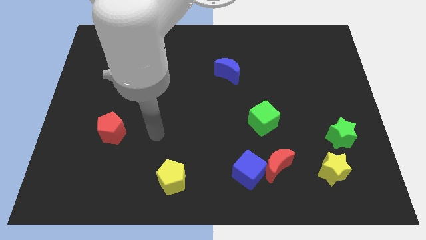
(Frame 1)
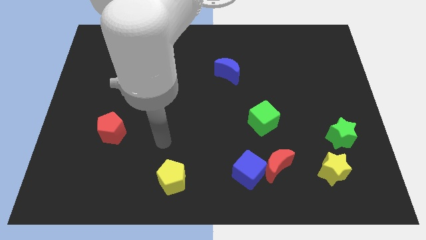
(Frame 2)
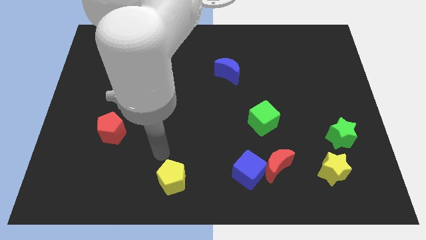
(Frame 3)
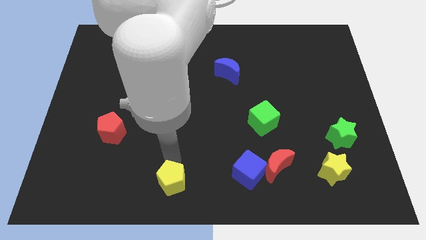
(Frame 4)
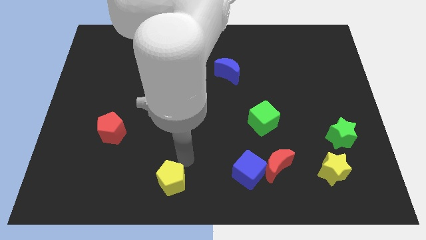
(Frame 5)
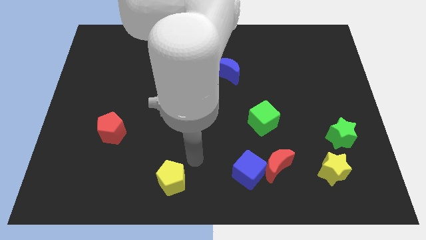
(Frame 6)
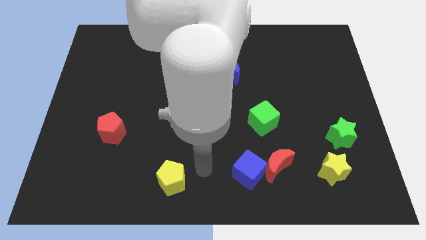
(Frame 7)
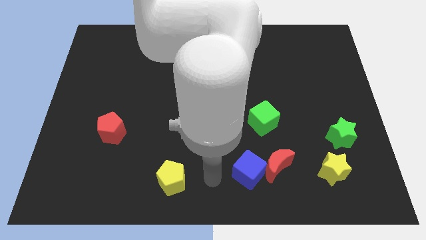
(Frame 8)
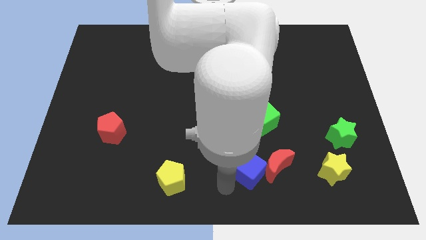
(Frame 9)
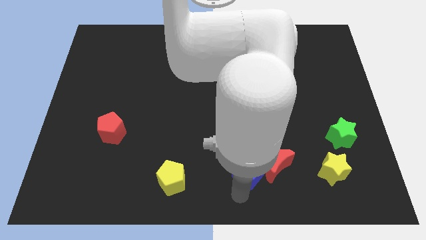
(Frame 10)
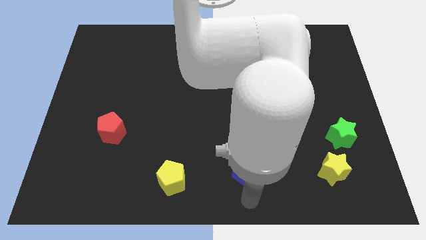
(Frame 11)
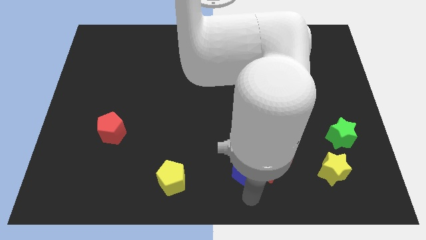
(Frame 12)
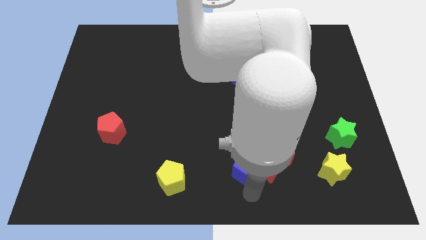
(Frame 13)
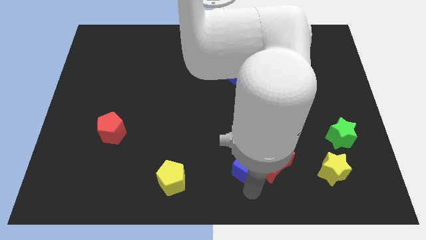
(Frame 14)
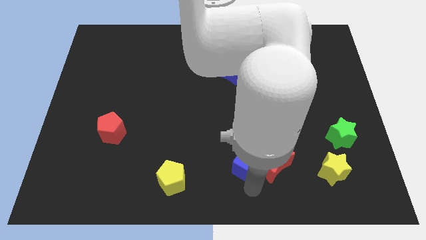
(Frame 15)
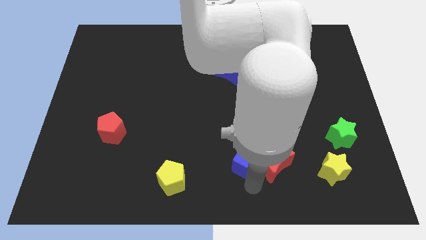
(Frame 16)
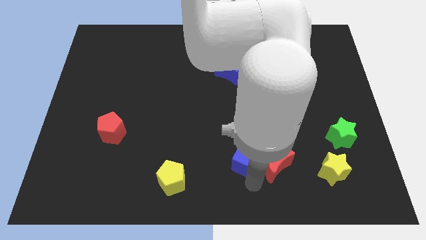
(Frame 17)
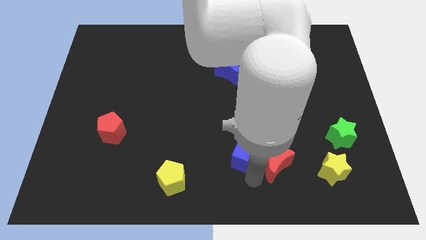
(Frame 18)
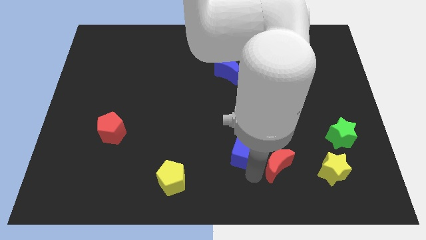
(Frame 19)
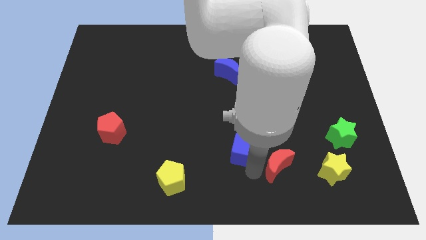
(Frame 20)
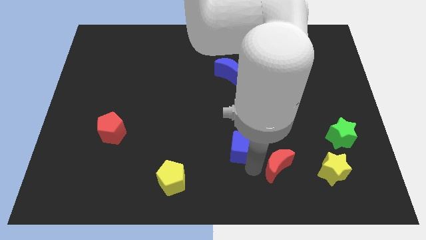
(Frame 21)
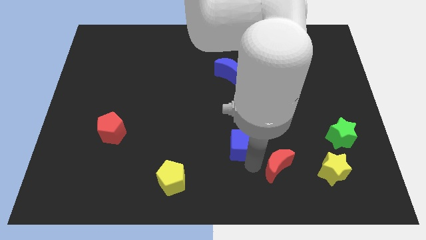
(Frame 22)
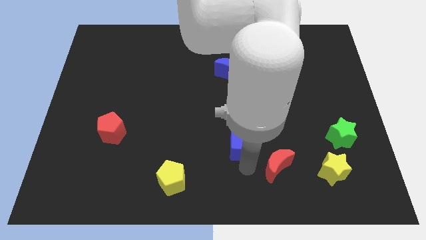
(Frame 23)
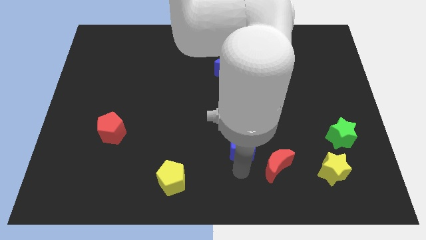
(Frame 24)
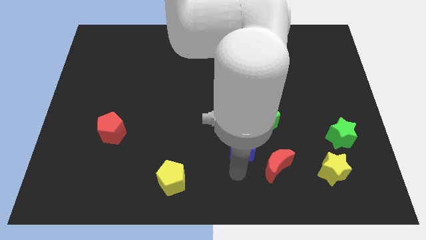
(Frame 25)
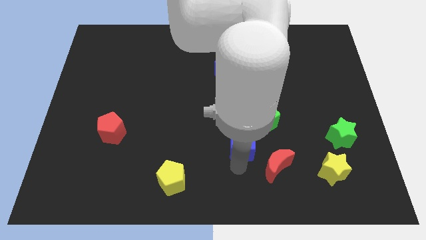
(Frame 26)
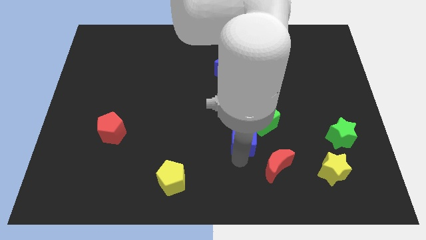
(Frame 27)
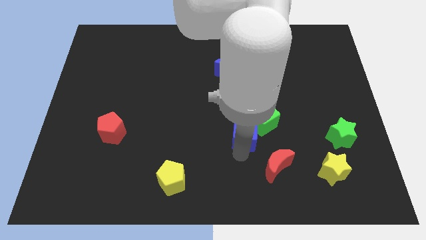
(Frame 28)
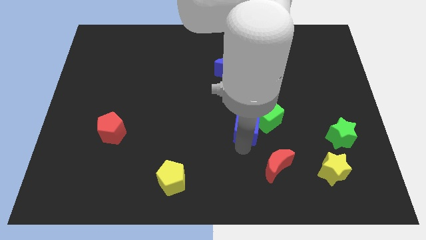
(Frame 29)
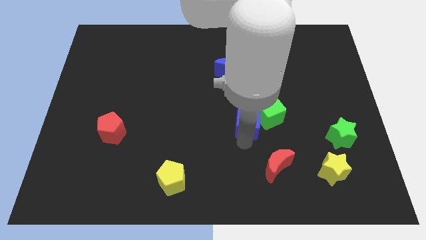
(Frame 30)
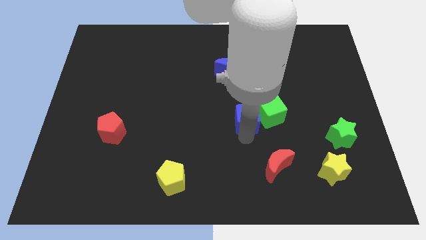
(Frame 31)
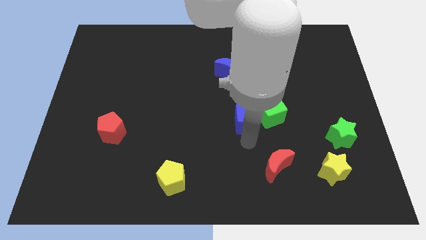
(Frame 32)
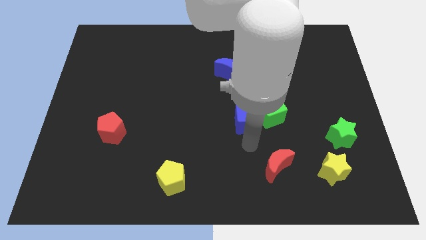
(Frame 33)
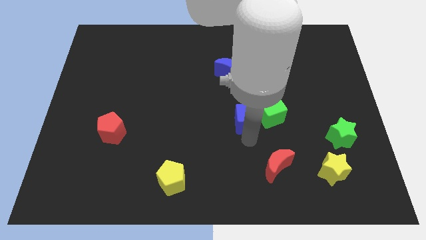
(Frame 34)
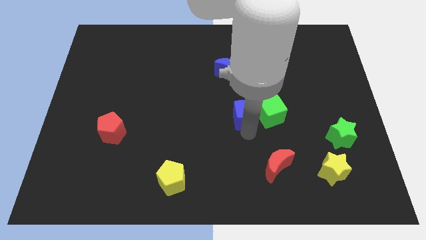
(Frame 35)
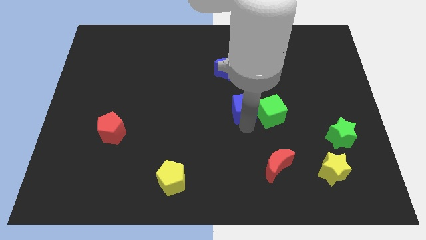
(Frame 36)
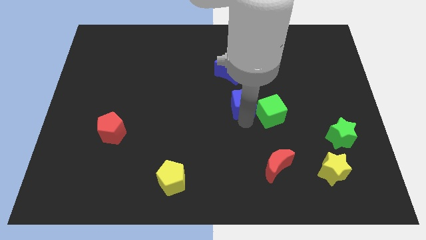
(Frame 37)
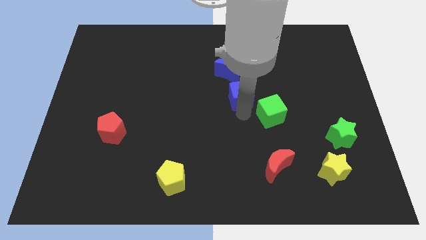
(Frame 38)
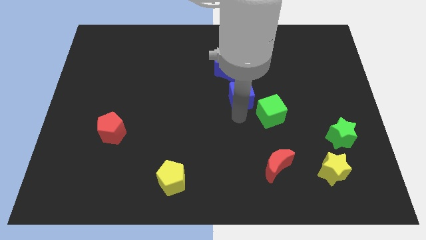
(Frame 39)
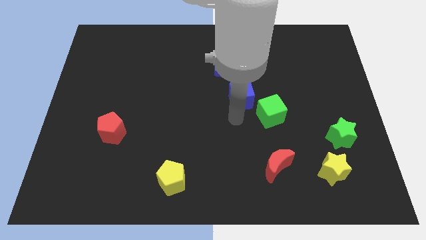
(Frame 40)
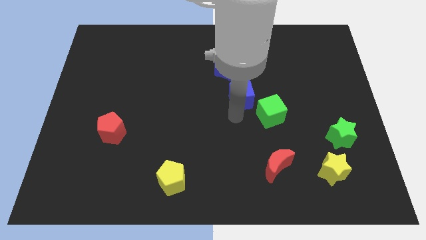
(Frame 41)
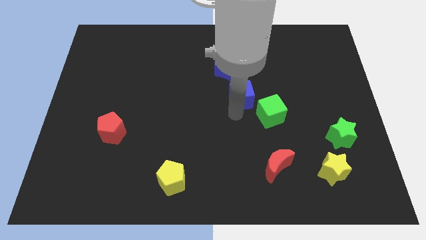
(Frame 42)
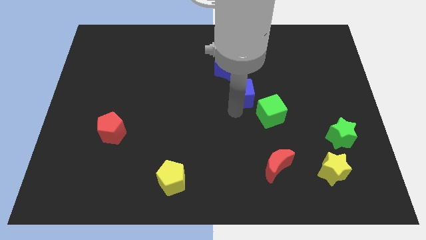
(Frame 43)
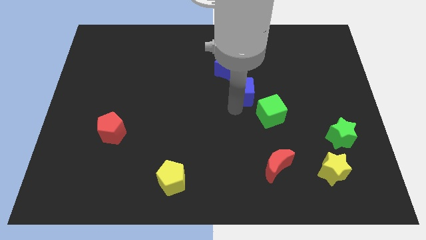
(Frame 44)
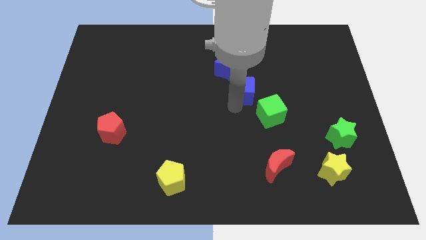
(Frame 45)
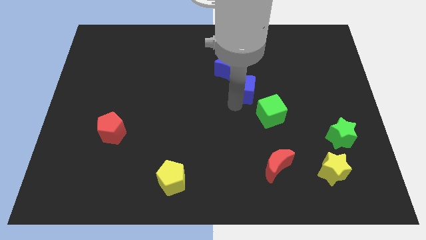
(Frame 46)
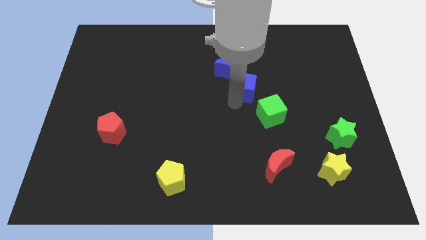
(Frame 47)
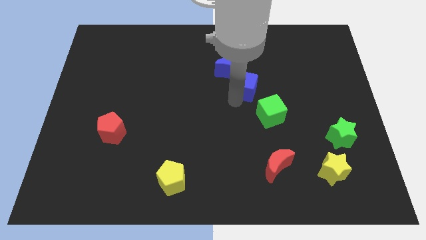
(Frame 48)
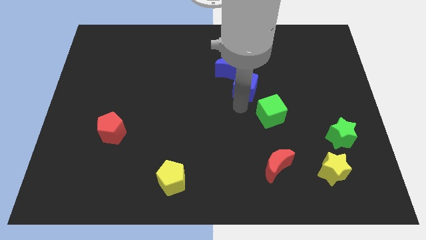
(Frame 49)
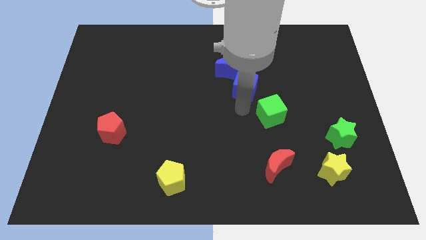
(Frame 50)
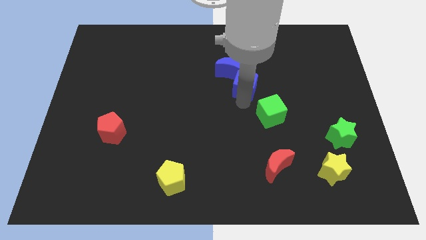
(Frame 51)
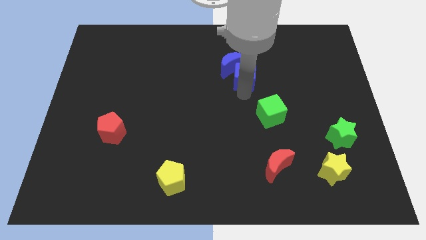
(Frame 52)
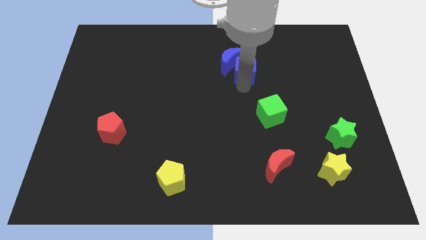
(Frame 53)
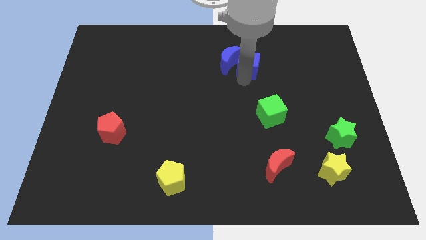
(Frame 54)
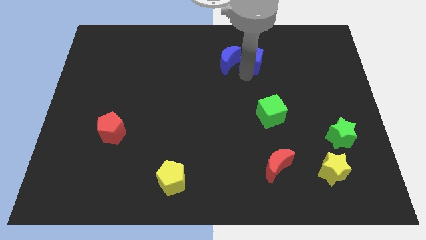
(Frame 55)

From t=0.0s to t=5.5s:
push the blue cube diagonally up and to the right of the blue moon

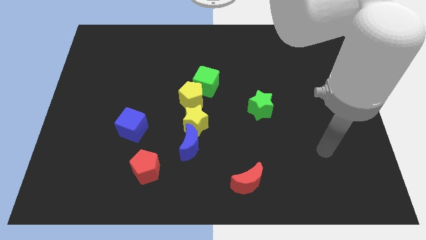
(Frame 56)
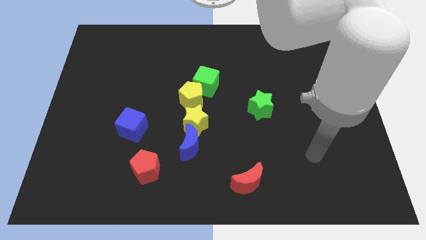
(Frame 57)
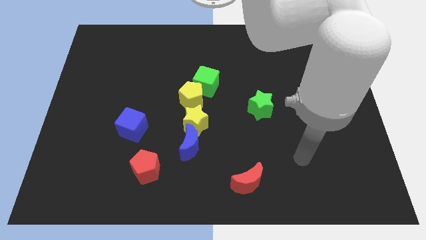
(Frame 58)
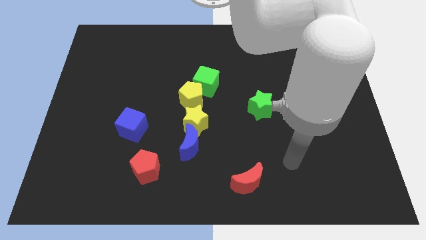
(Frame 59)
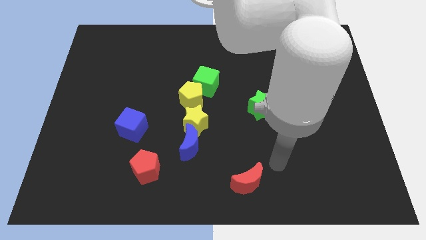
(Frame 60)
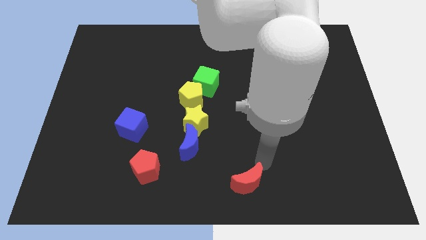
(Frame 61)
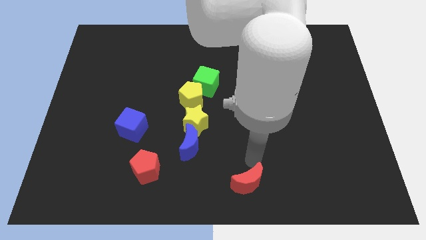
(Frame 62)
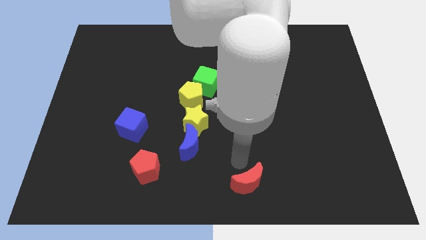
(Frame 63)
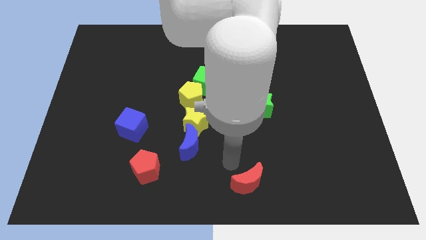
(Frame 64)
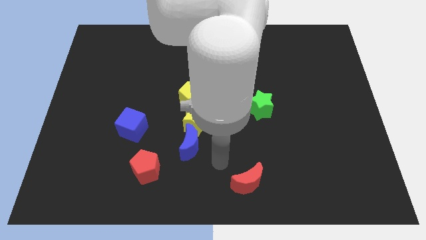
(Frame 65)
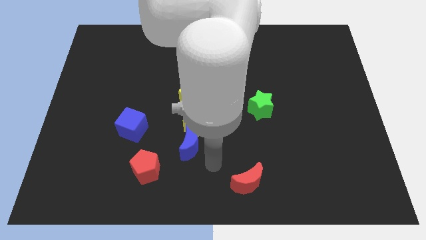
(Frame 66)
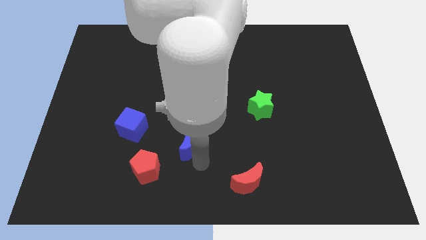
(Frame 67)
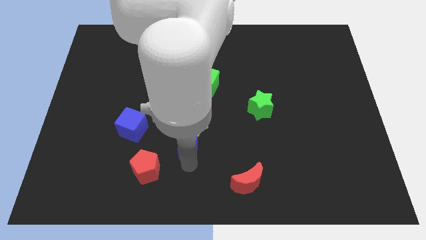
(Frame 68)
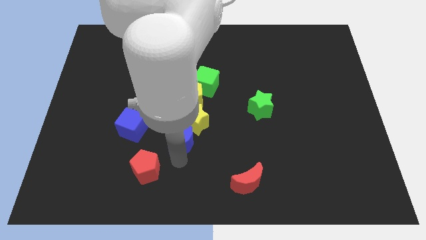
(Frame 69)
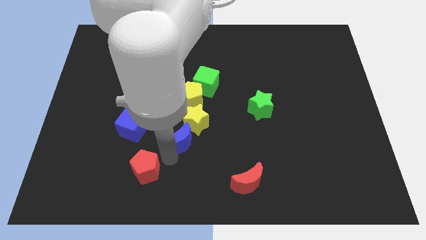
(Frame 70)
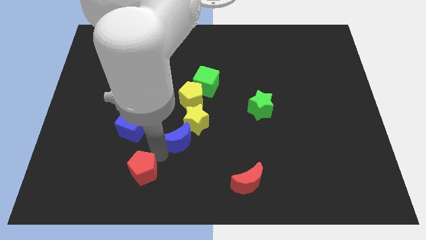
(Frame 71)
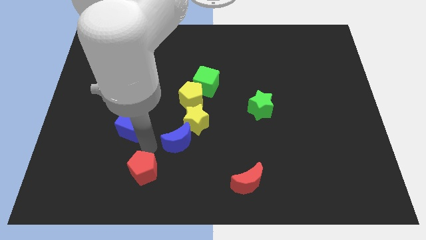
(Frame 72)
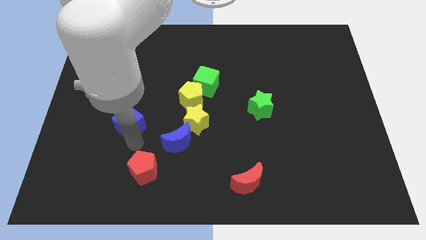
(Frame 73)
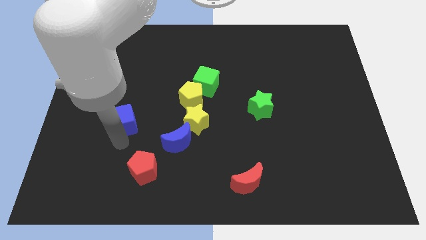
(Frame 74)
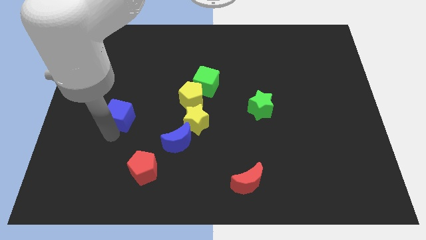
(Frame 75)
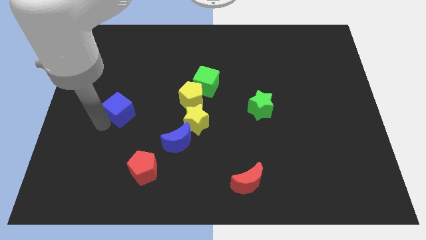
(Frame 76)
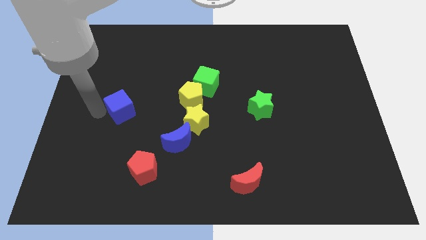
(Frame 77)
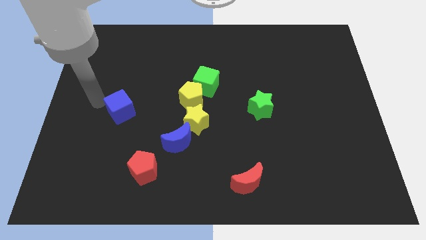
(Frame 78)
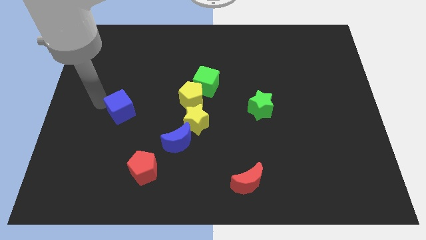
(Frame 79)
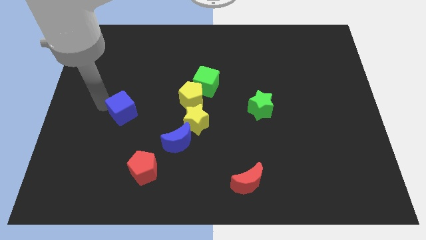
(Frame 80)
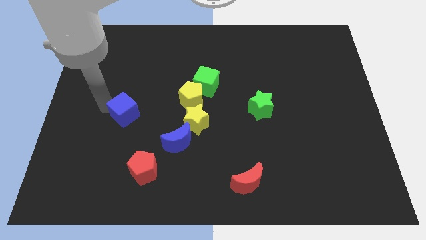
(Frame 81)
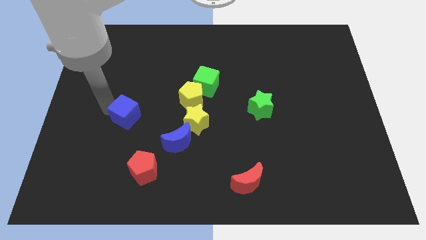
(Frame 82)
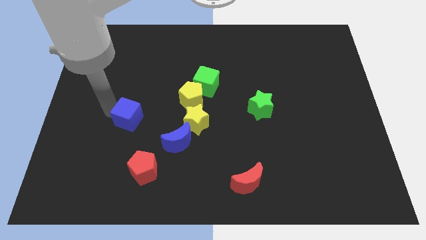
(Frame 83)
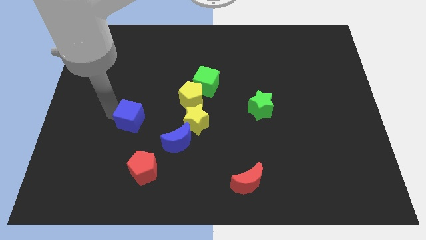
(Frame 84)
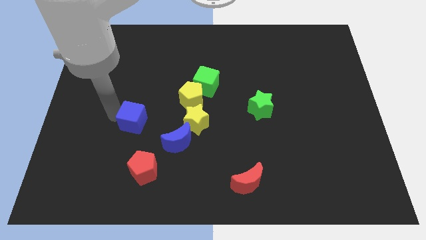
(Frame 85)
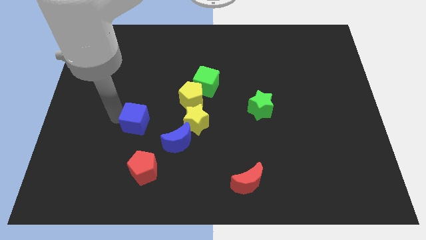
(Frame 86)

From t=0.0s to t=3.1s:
put the blue cube to the top left of the blue moon
